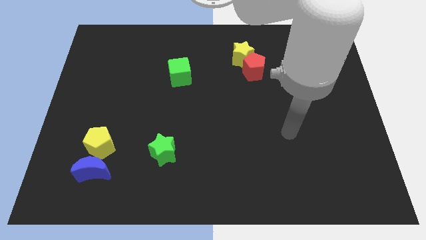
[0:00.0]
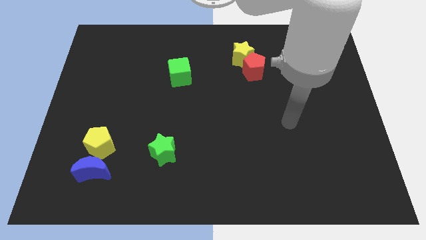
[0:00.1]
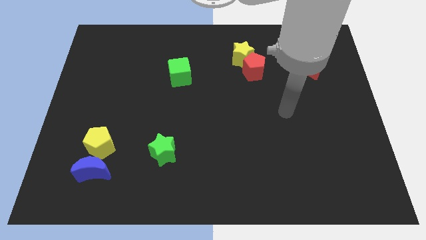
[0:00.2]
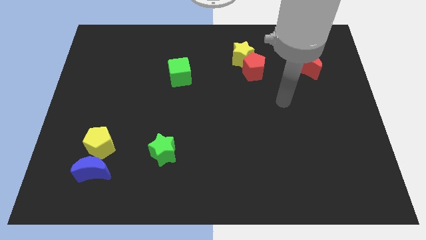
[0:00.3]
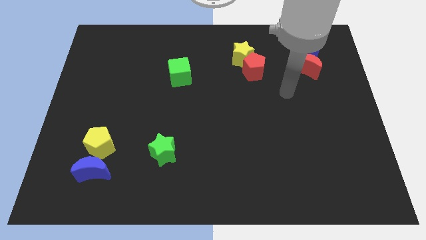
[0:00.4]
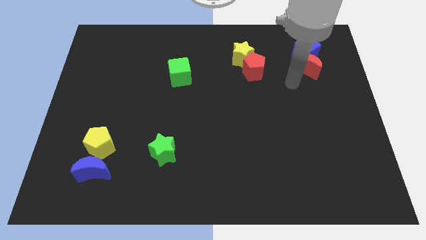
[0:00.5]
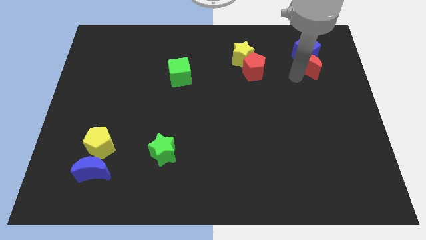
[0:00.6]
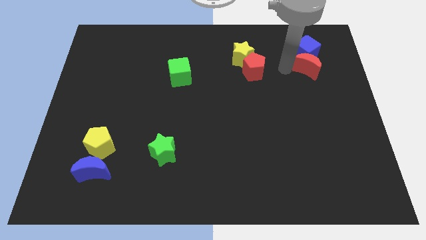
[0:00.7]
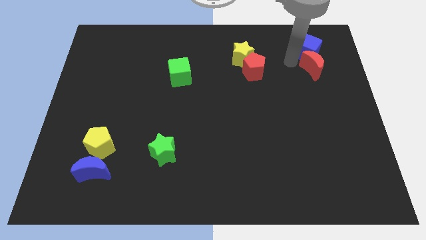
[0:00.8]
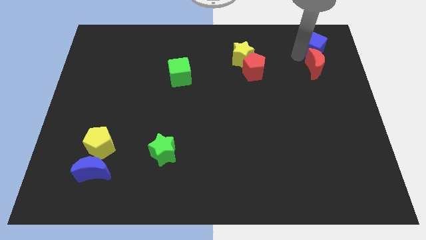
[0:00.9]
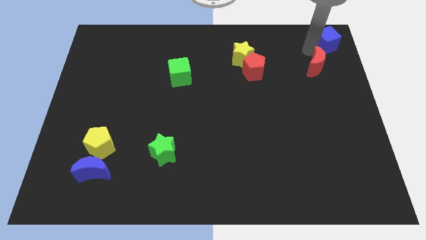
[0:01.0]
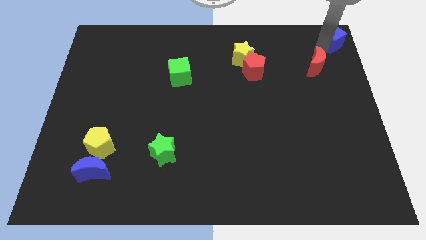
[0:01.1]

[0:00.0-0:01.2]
separate the red moon from the blue cube

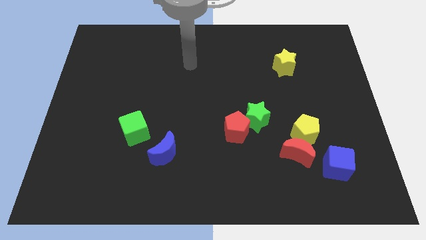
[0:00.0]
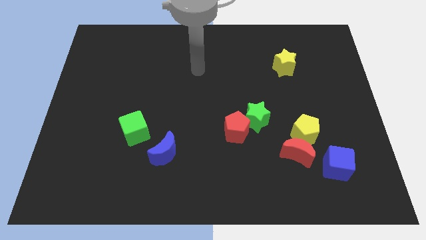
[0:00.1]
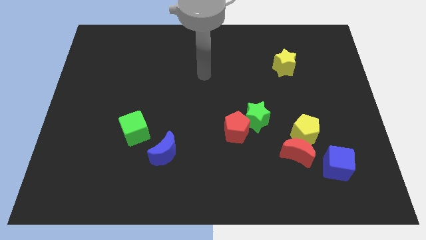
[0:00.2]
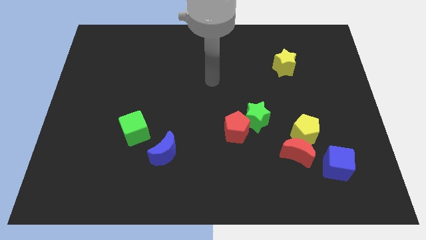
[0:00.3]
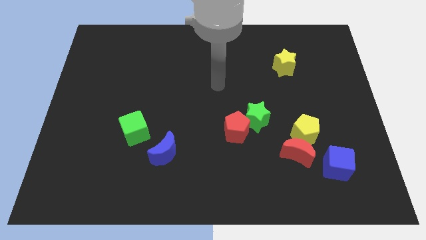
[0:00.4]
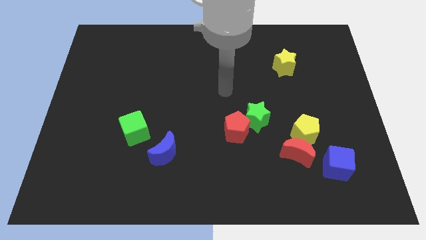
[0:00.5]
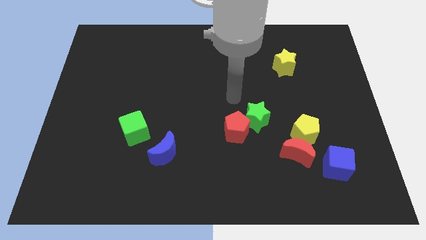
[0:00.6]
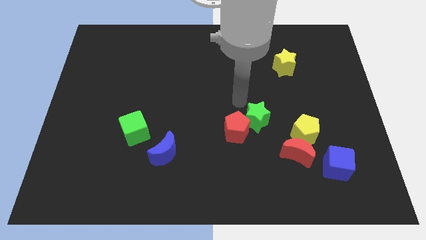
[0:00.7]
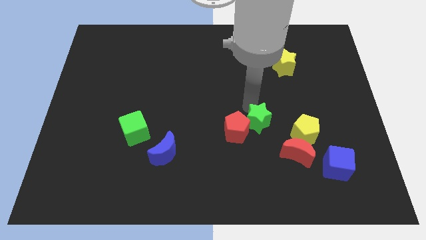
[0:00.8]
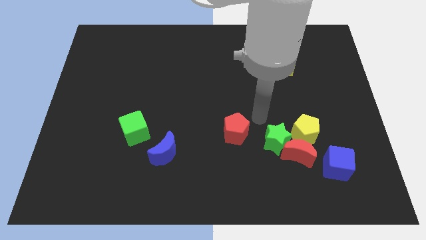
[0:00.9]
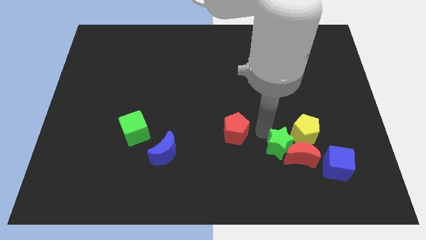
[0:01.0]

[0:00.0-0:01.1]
move the red pentagon away from the green star

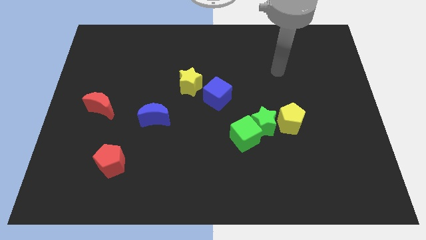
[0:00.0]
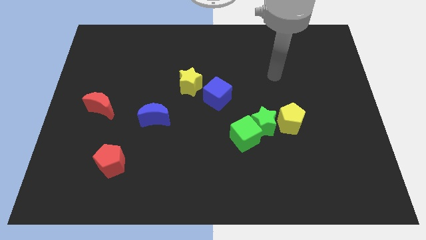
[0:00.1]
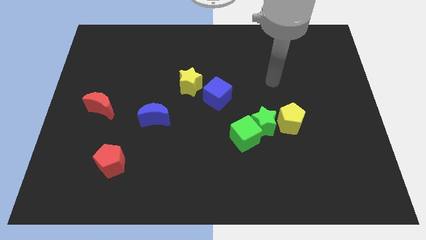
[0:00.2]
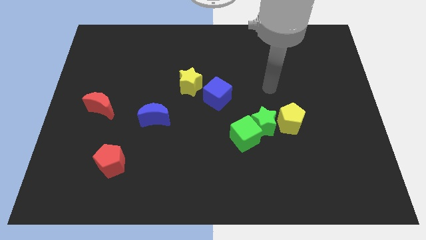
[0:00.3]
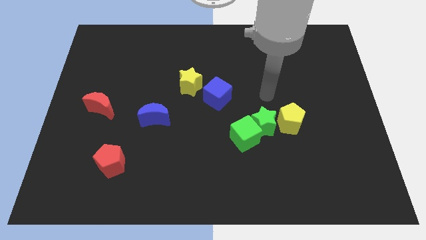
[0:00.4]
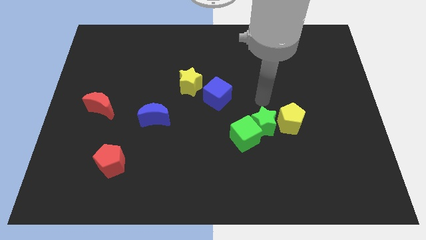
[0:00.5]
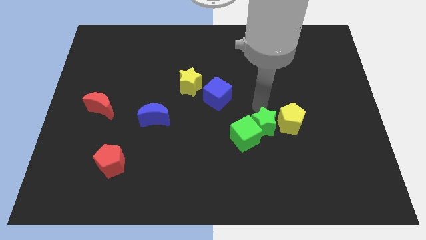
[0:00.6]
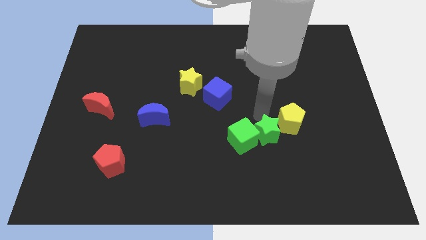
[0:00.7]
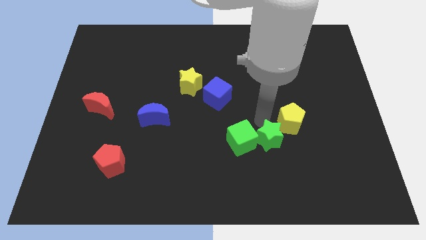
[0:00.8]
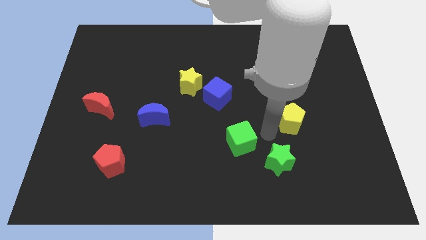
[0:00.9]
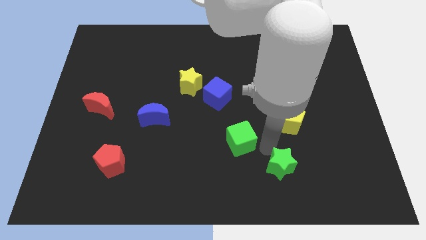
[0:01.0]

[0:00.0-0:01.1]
move the green cube away from the green star

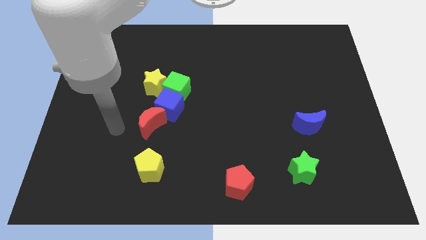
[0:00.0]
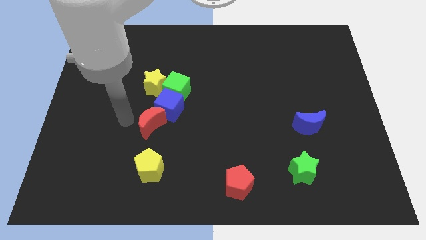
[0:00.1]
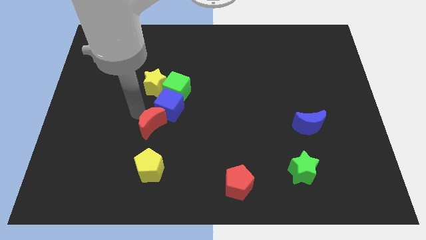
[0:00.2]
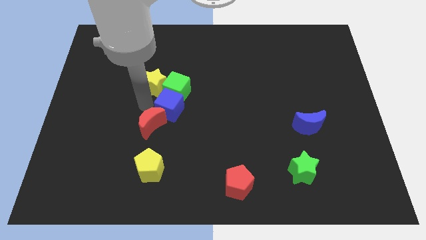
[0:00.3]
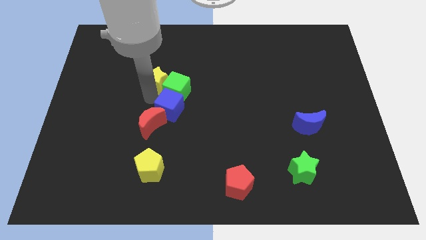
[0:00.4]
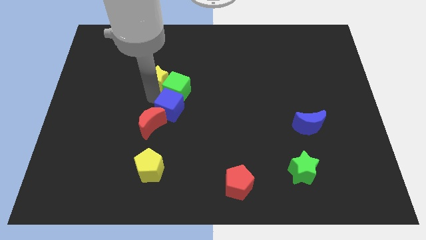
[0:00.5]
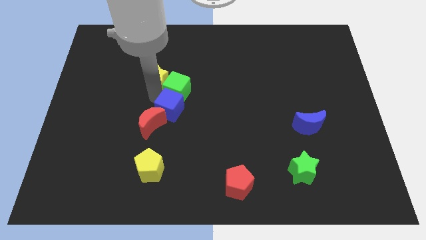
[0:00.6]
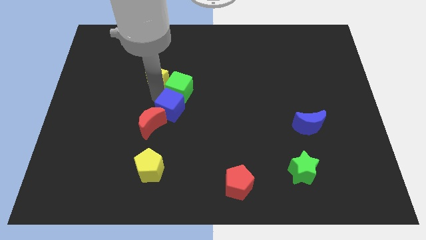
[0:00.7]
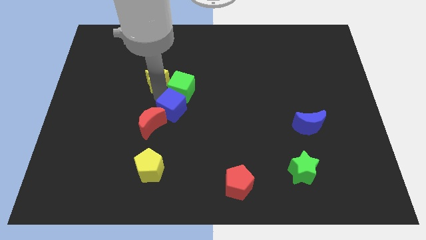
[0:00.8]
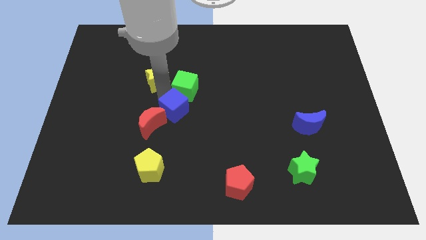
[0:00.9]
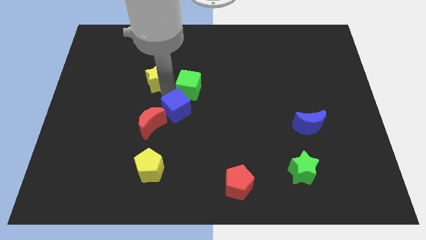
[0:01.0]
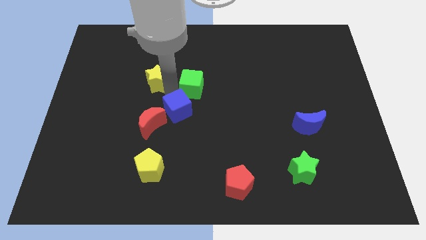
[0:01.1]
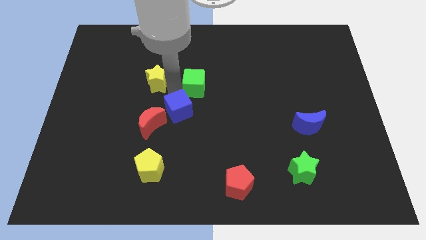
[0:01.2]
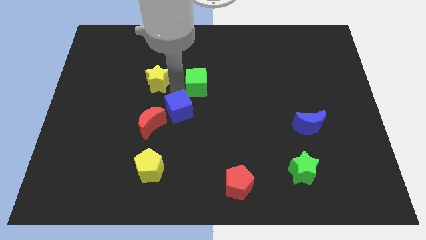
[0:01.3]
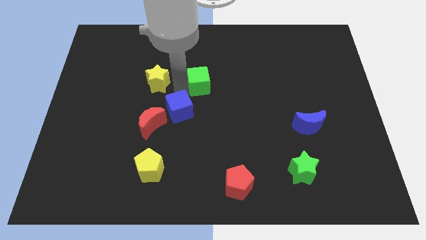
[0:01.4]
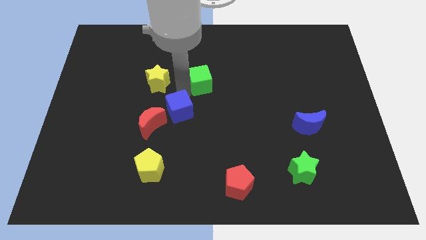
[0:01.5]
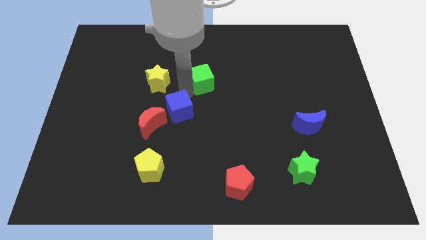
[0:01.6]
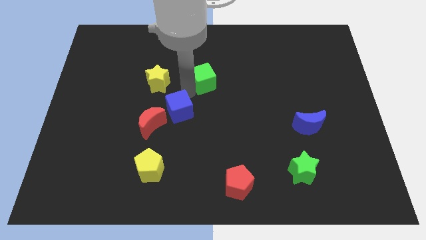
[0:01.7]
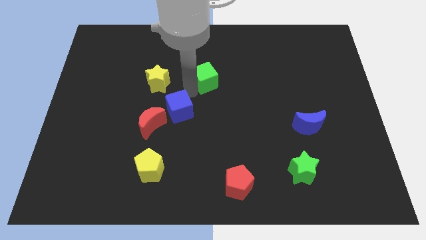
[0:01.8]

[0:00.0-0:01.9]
move the green cube away from the blue cube and yellow star

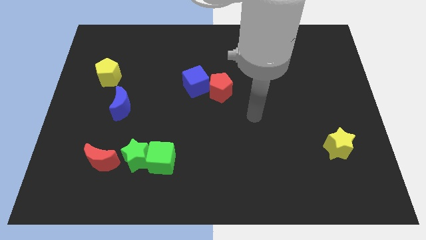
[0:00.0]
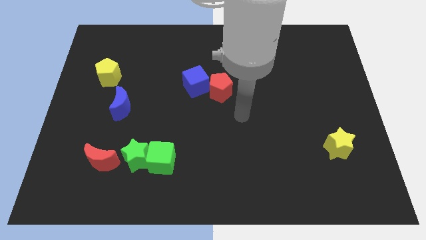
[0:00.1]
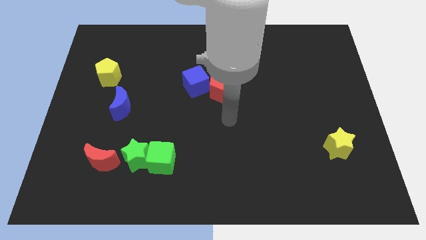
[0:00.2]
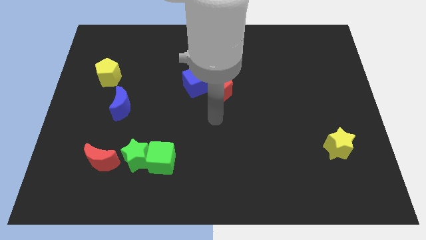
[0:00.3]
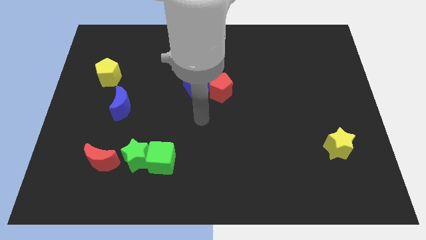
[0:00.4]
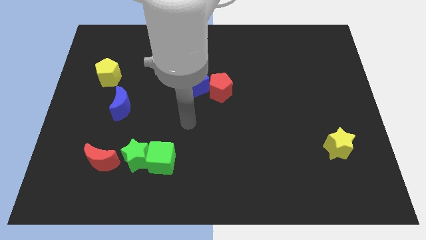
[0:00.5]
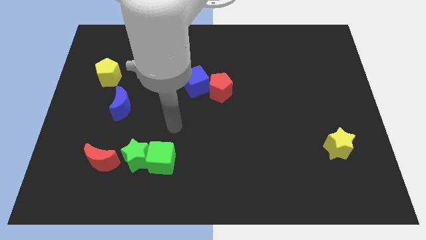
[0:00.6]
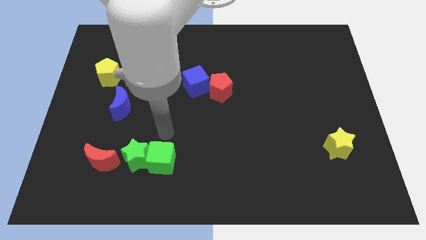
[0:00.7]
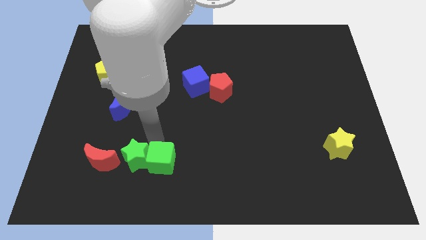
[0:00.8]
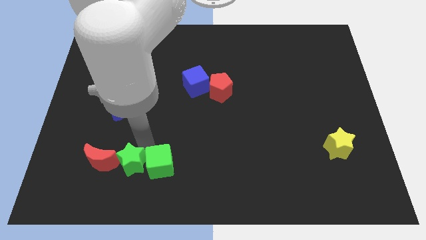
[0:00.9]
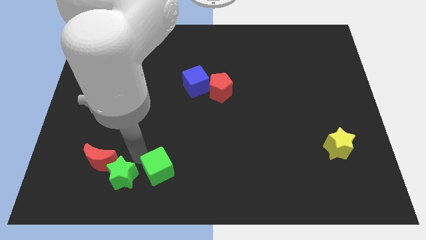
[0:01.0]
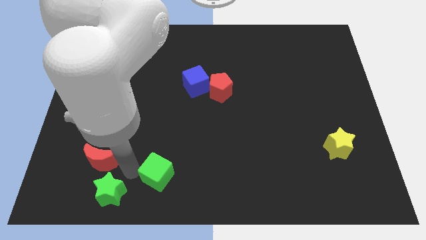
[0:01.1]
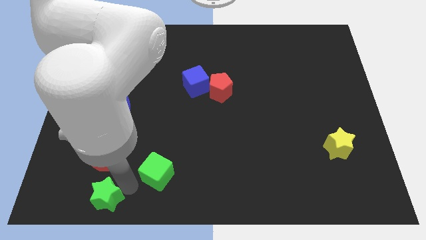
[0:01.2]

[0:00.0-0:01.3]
separate the green cube from the green star

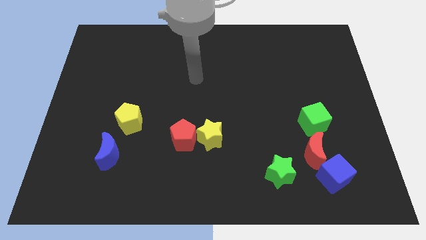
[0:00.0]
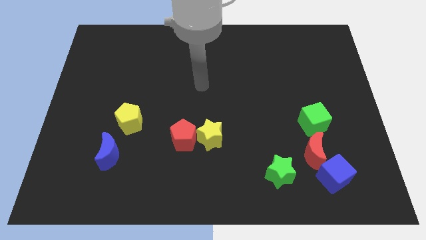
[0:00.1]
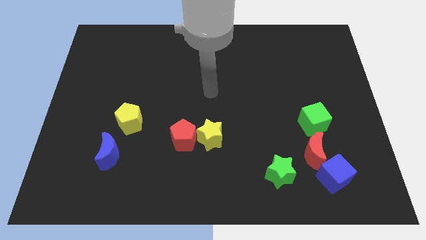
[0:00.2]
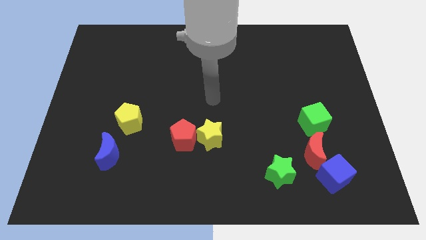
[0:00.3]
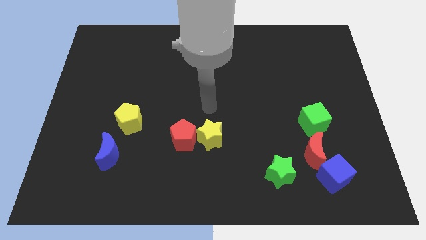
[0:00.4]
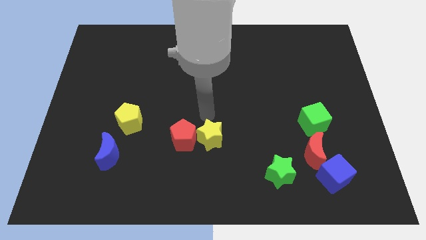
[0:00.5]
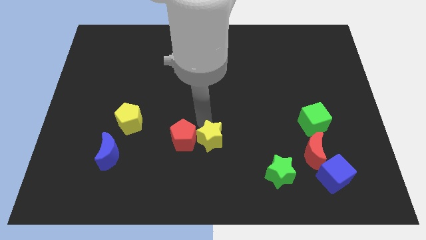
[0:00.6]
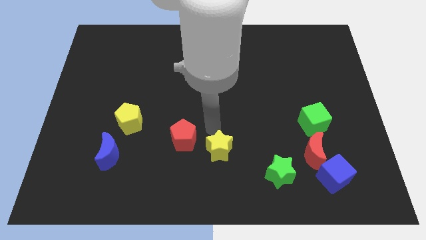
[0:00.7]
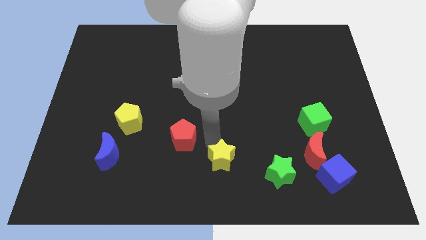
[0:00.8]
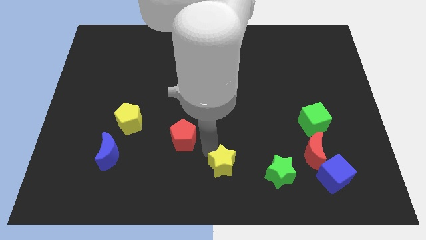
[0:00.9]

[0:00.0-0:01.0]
separate the red pentagon from the yellow star

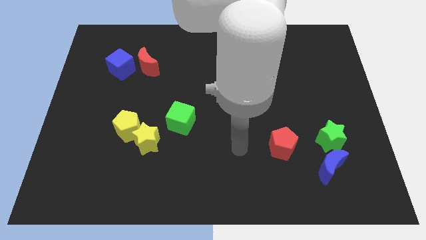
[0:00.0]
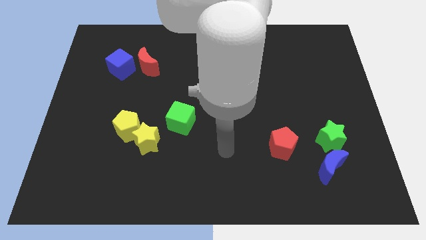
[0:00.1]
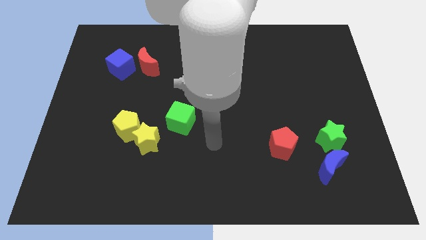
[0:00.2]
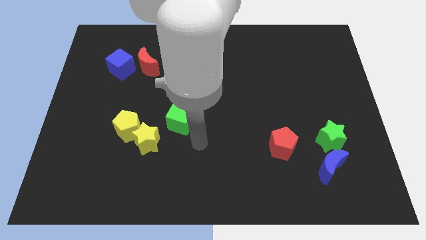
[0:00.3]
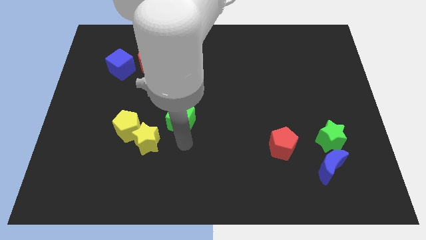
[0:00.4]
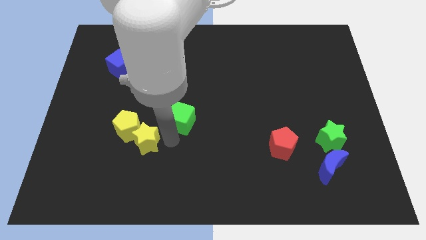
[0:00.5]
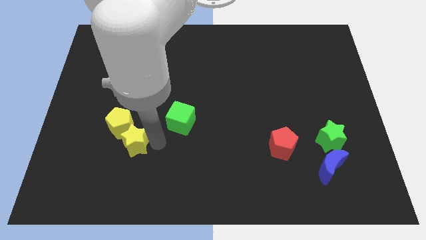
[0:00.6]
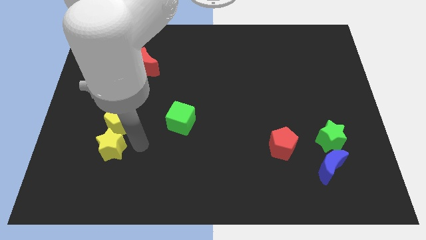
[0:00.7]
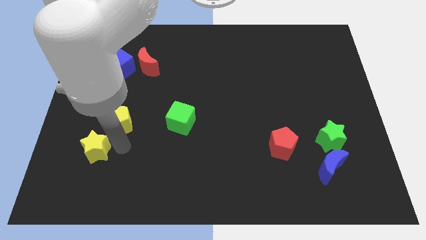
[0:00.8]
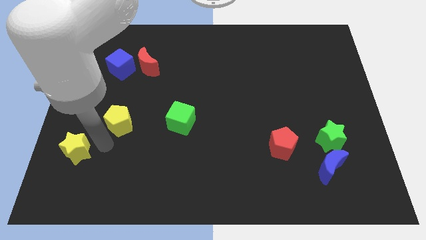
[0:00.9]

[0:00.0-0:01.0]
separate the yellow pentagon from the yellow star

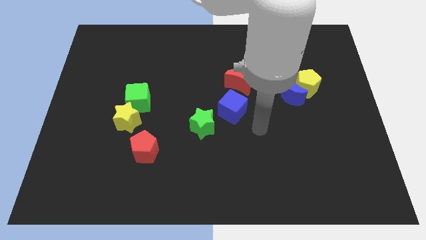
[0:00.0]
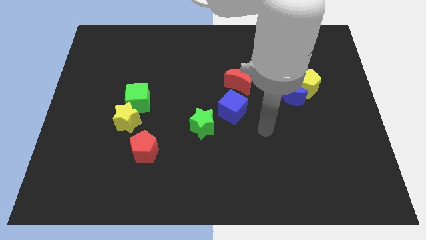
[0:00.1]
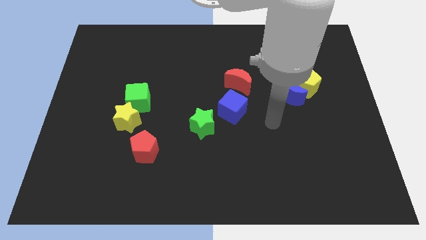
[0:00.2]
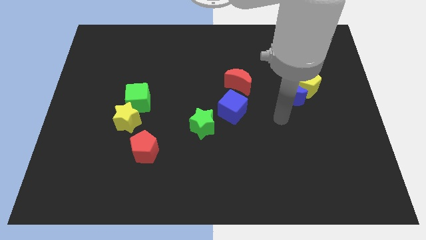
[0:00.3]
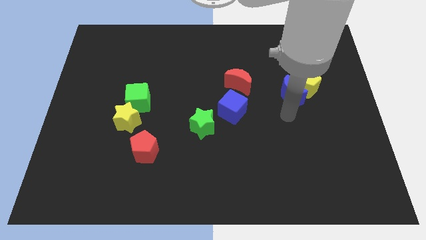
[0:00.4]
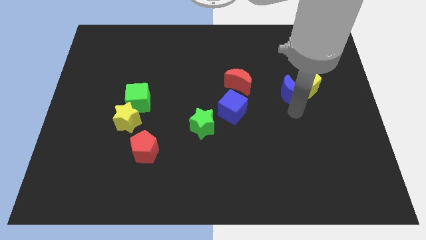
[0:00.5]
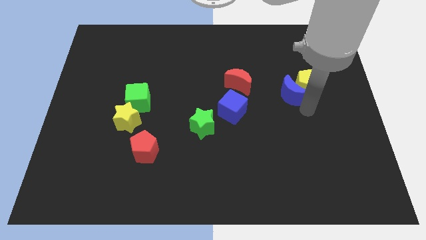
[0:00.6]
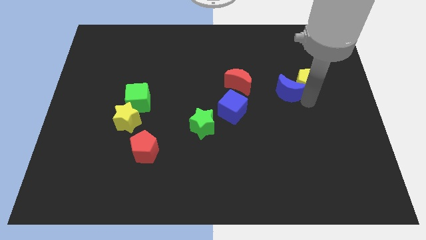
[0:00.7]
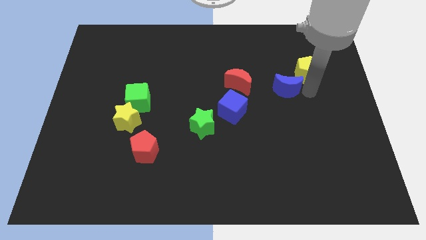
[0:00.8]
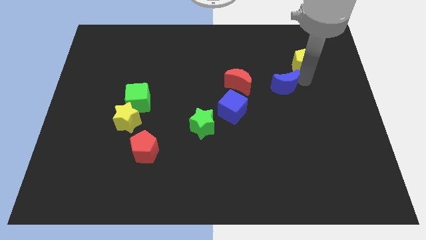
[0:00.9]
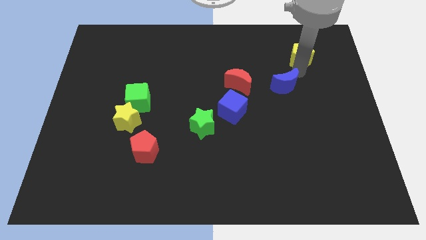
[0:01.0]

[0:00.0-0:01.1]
separate the blue moon from the yellow pentagon
